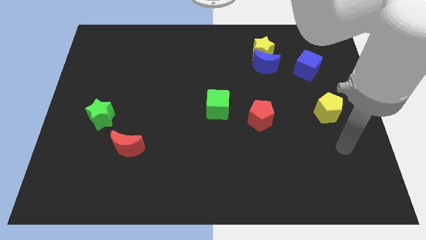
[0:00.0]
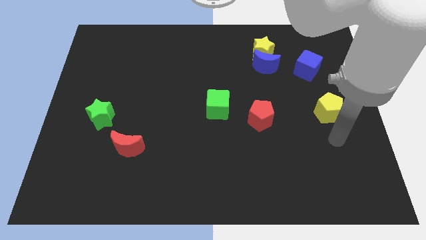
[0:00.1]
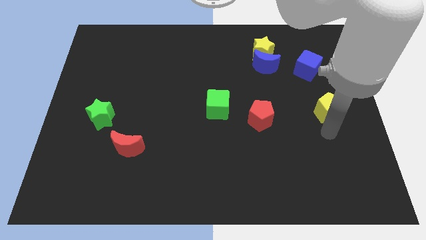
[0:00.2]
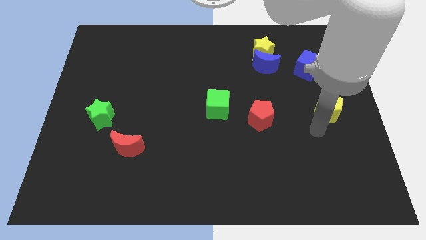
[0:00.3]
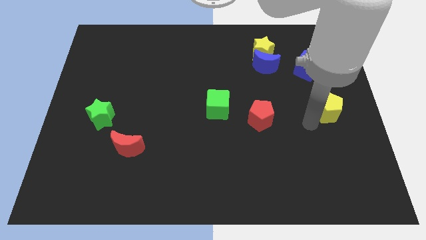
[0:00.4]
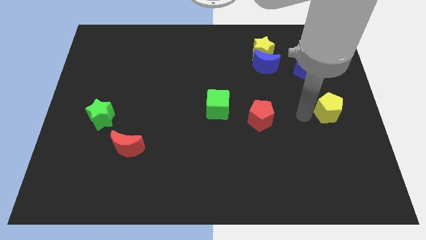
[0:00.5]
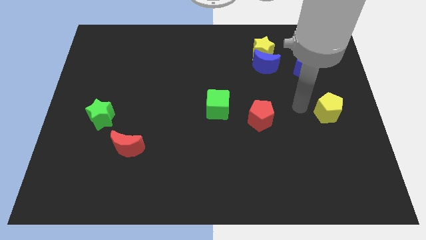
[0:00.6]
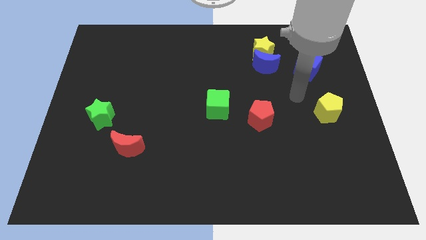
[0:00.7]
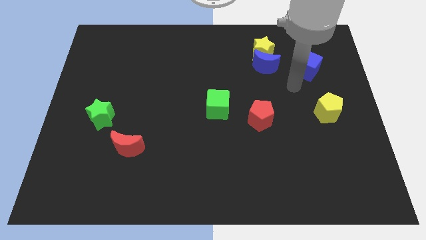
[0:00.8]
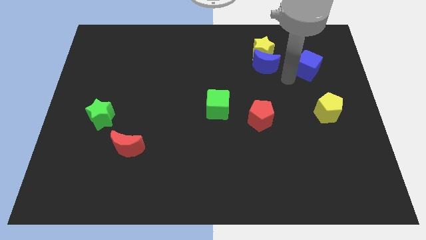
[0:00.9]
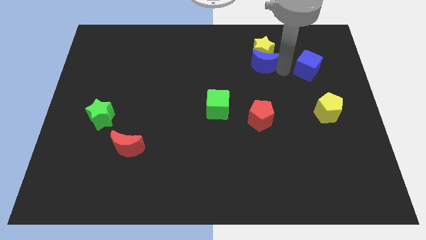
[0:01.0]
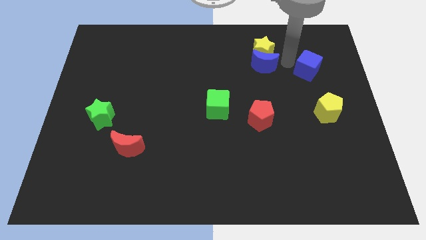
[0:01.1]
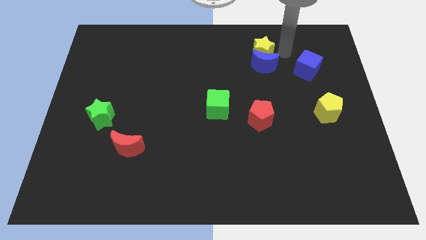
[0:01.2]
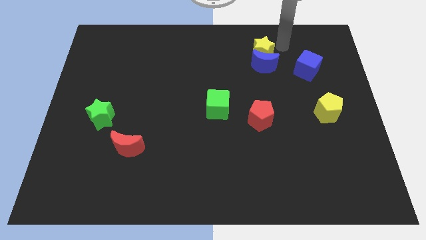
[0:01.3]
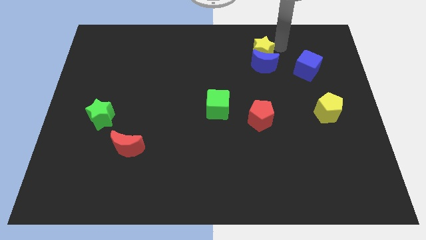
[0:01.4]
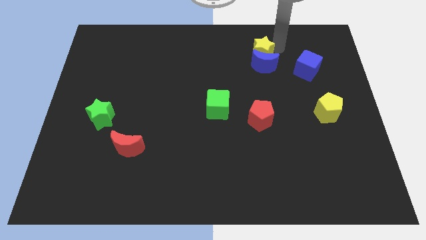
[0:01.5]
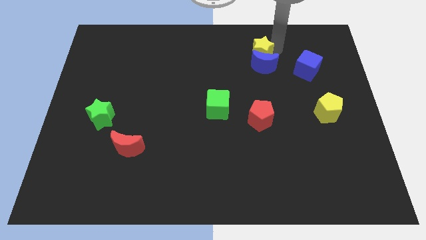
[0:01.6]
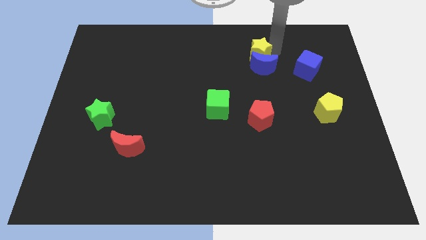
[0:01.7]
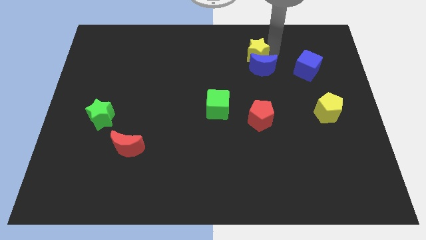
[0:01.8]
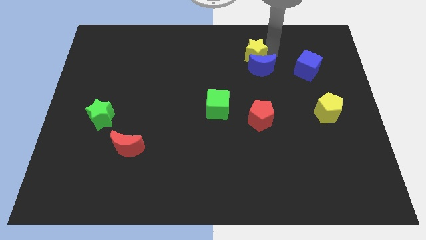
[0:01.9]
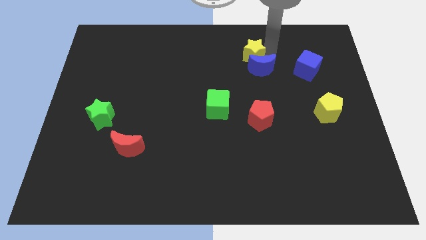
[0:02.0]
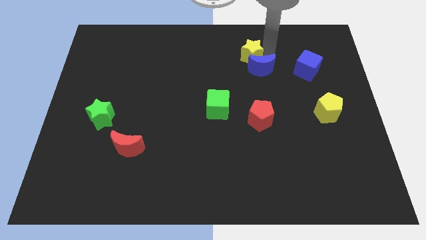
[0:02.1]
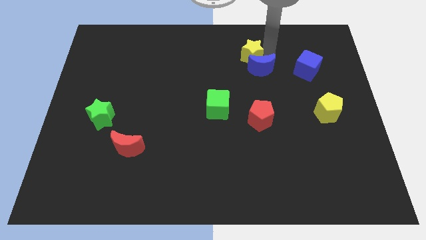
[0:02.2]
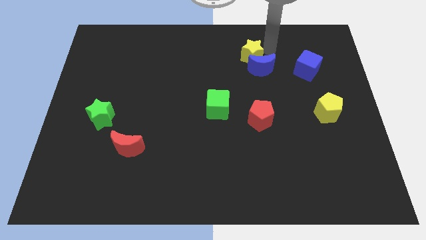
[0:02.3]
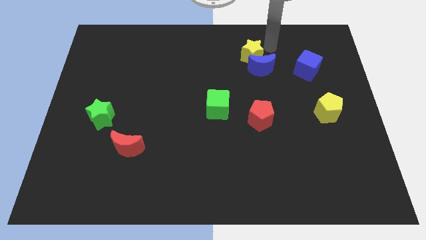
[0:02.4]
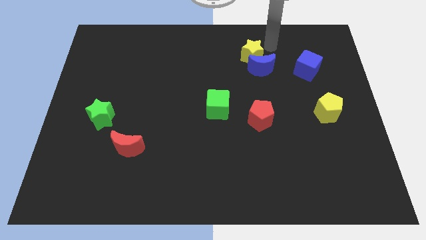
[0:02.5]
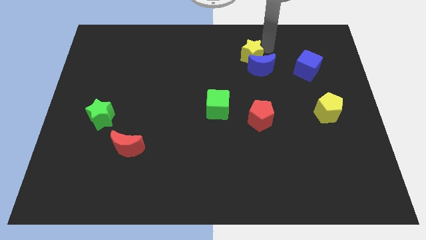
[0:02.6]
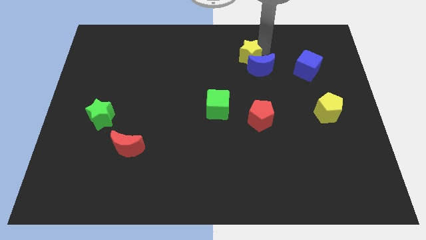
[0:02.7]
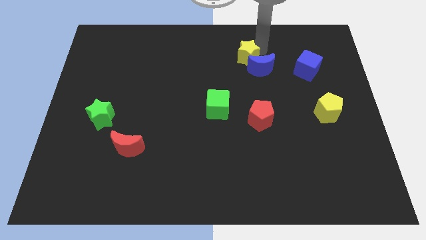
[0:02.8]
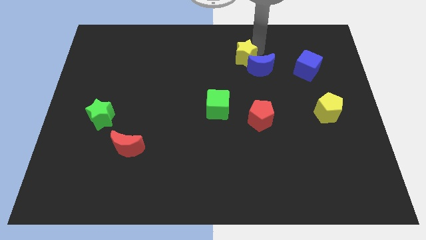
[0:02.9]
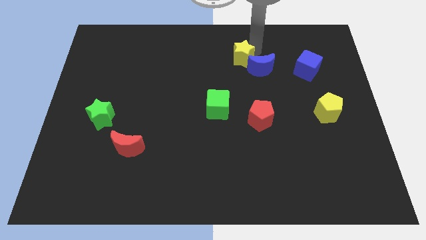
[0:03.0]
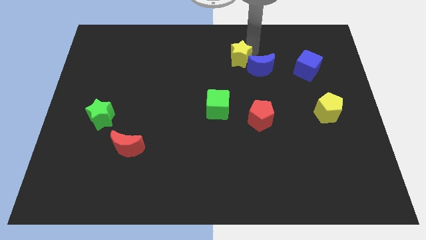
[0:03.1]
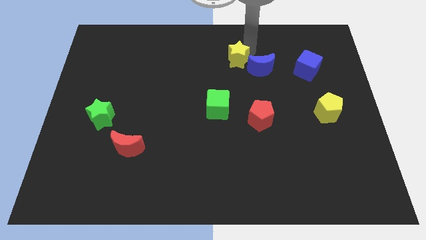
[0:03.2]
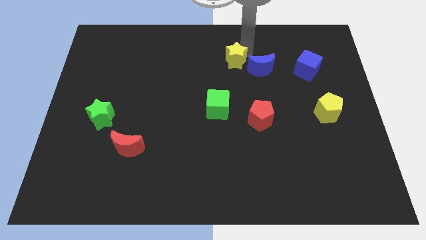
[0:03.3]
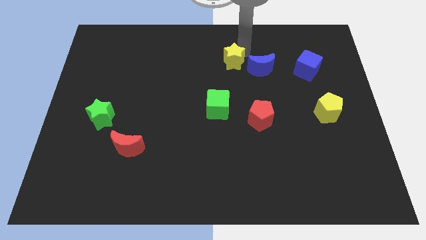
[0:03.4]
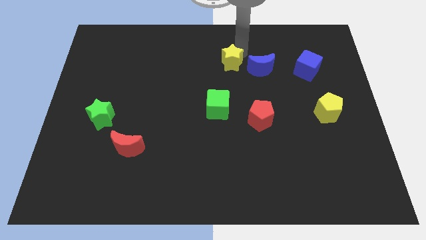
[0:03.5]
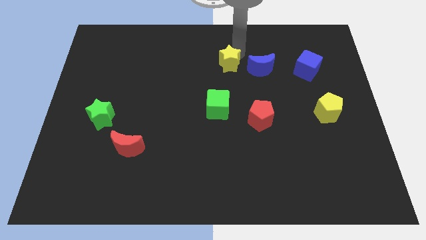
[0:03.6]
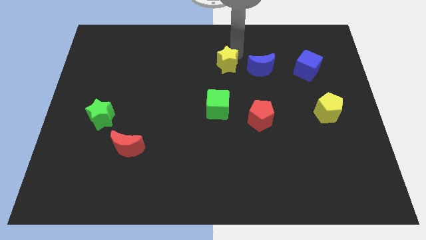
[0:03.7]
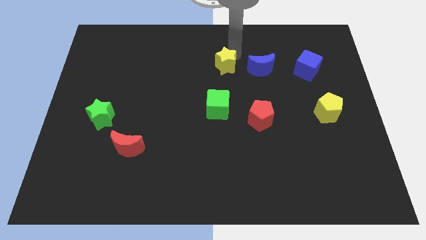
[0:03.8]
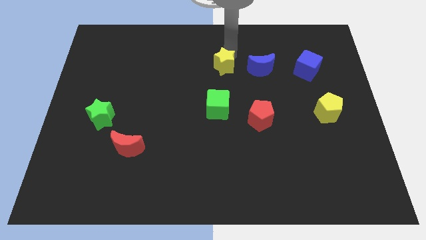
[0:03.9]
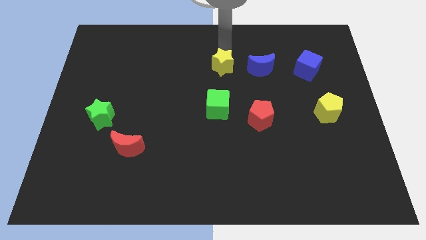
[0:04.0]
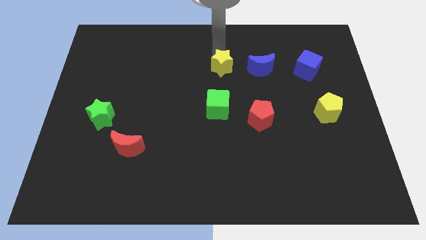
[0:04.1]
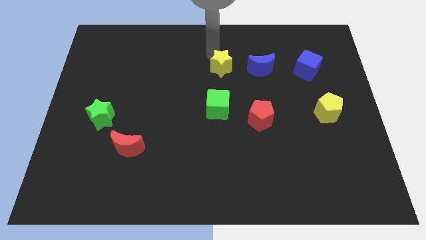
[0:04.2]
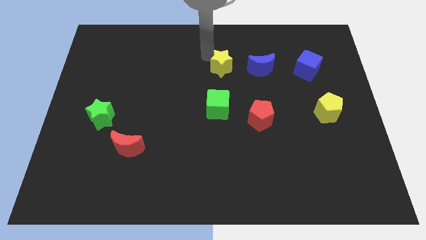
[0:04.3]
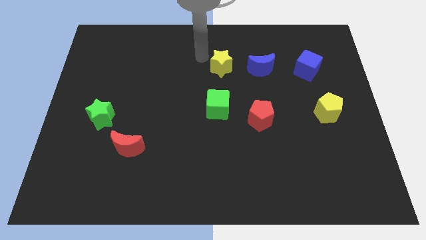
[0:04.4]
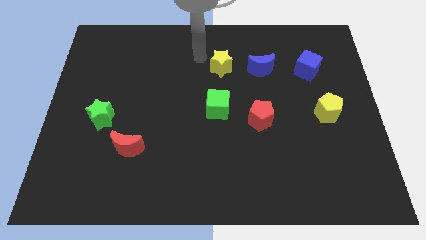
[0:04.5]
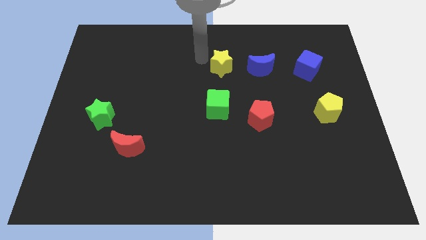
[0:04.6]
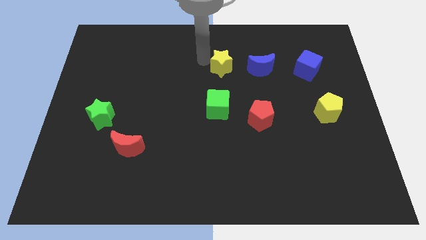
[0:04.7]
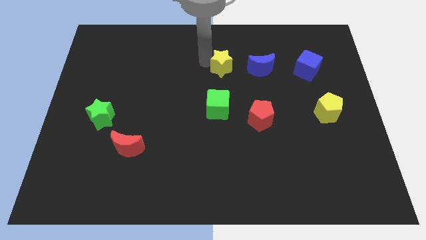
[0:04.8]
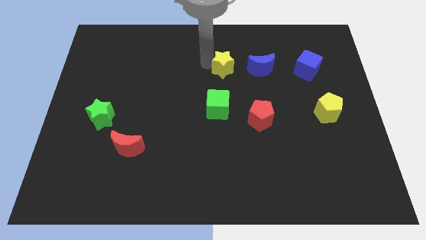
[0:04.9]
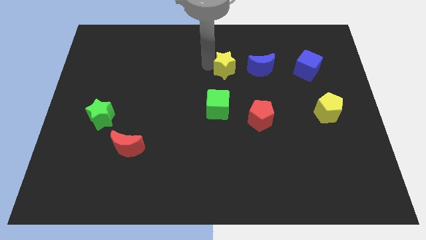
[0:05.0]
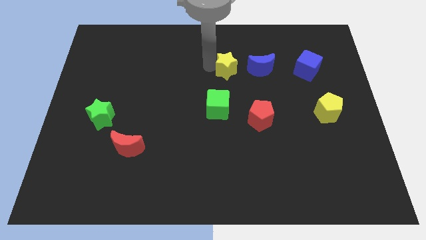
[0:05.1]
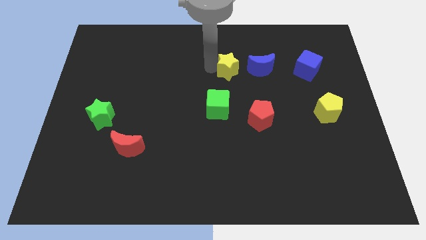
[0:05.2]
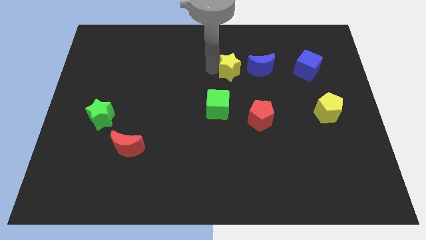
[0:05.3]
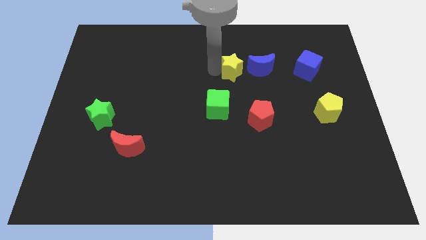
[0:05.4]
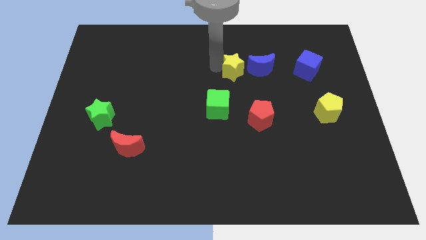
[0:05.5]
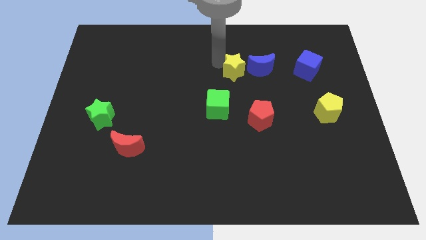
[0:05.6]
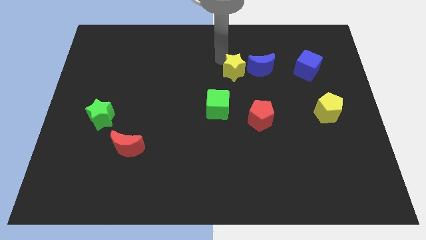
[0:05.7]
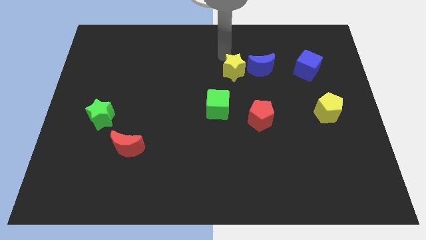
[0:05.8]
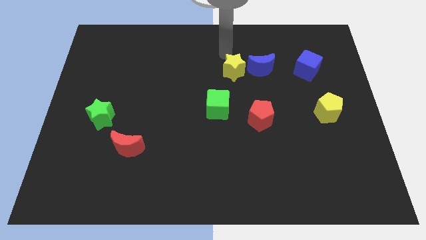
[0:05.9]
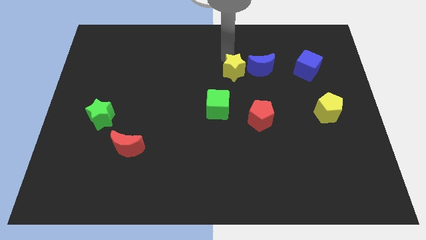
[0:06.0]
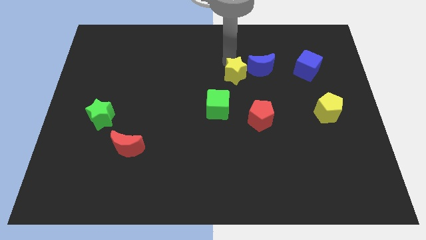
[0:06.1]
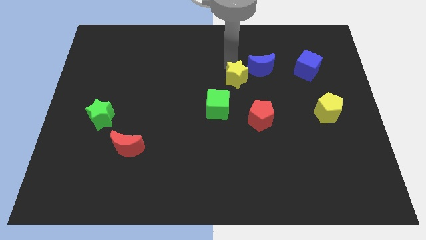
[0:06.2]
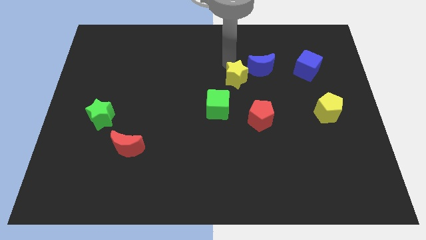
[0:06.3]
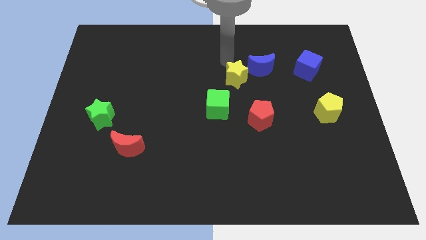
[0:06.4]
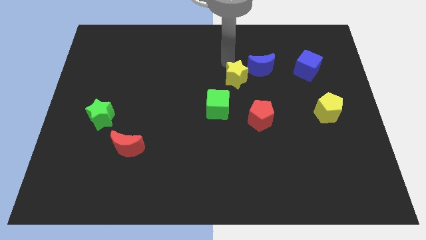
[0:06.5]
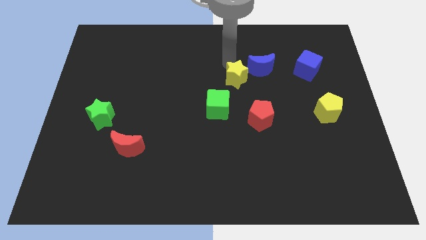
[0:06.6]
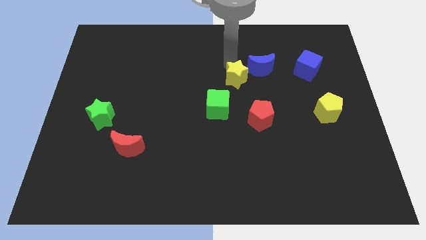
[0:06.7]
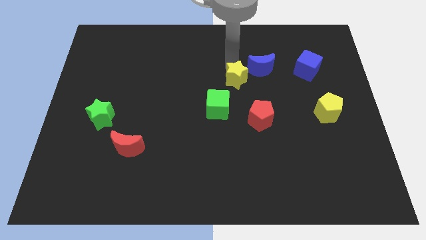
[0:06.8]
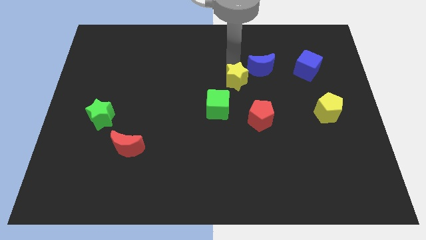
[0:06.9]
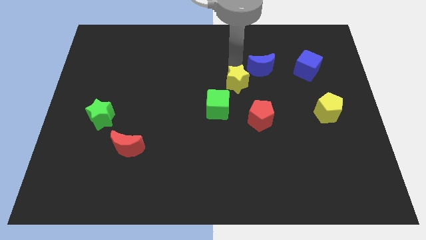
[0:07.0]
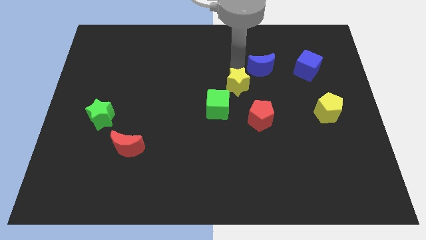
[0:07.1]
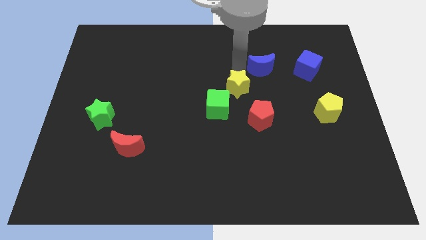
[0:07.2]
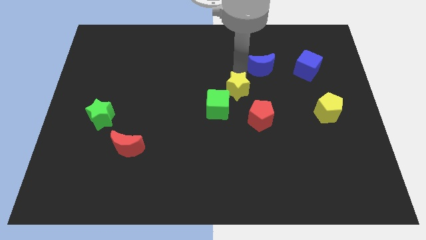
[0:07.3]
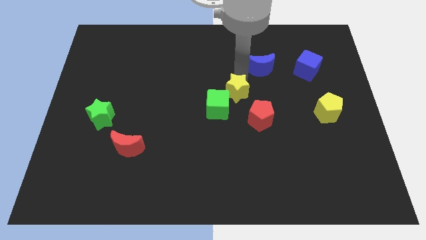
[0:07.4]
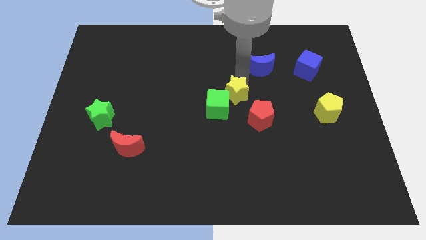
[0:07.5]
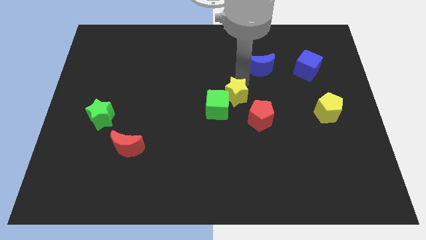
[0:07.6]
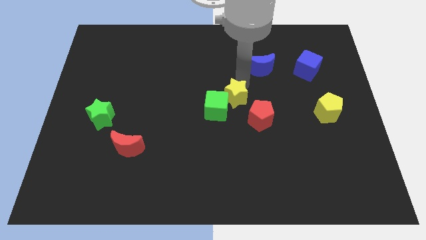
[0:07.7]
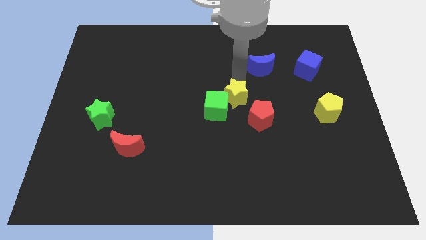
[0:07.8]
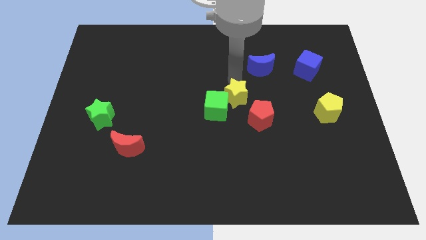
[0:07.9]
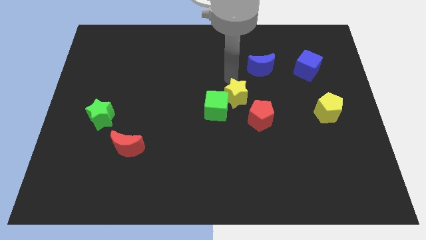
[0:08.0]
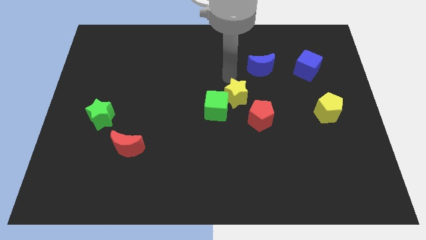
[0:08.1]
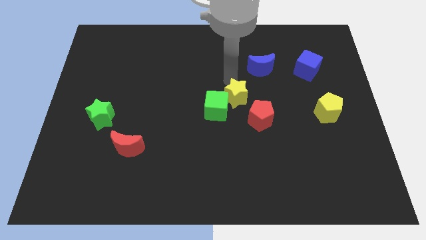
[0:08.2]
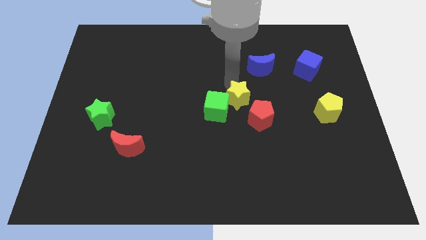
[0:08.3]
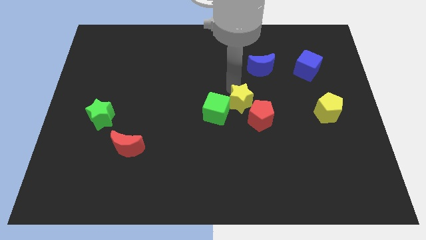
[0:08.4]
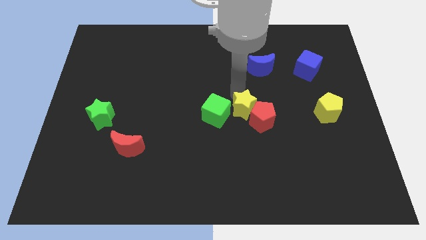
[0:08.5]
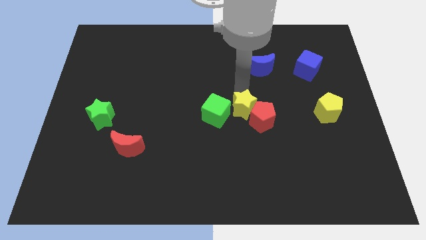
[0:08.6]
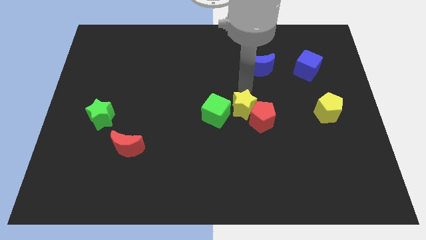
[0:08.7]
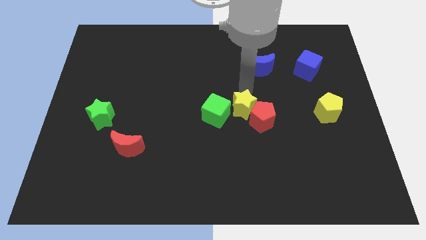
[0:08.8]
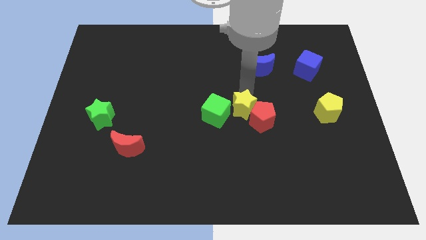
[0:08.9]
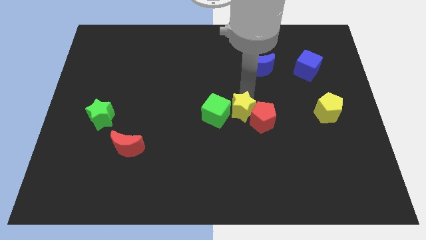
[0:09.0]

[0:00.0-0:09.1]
move the yellow star to the bottom right side of the green cube
